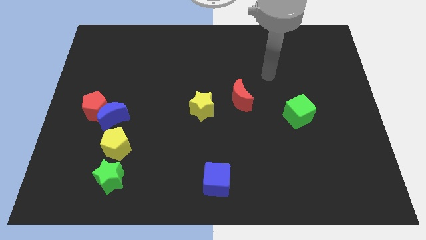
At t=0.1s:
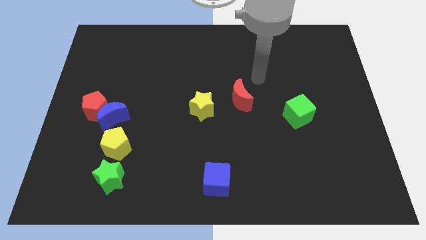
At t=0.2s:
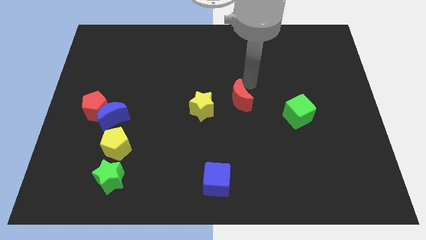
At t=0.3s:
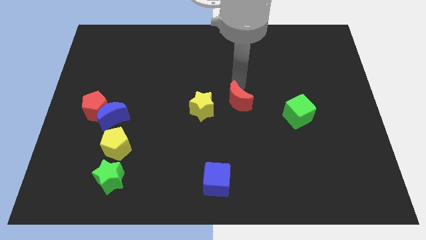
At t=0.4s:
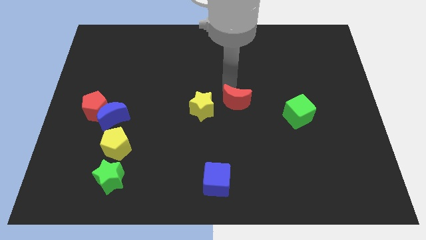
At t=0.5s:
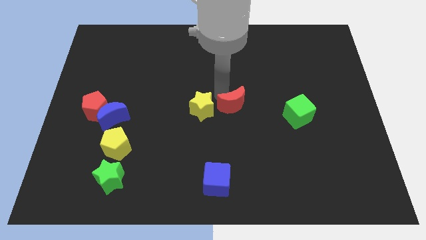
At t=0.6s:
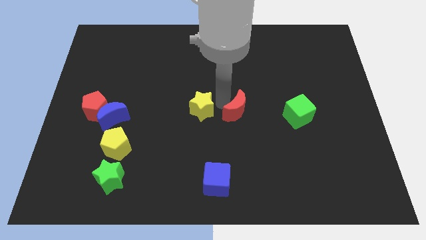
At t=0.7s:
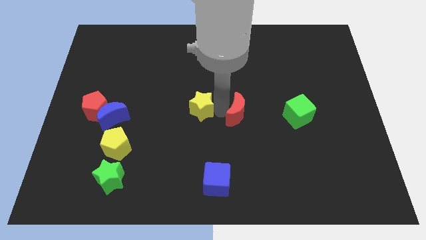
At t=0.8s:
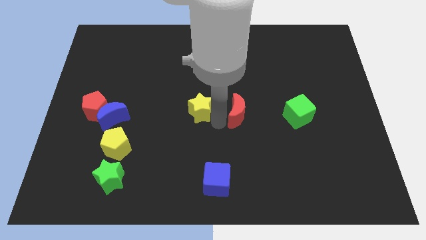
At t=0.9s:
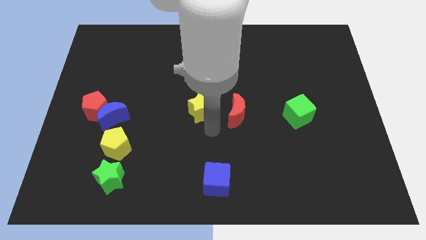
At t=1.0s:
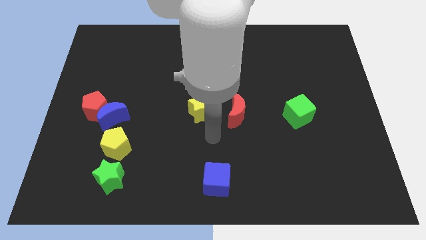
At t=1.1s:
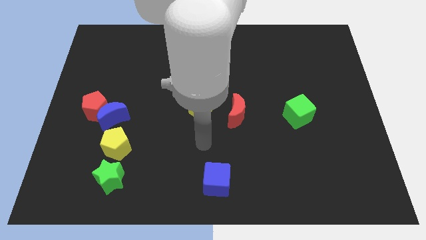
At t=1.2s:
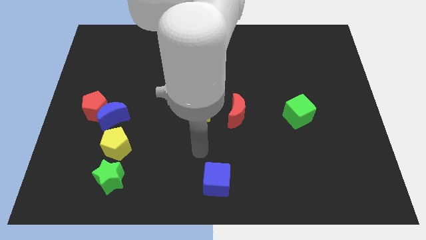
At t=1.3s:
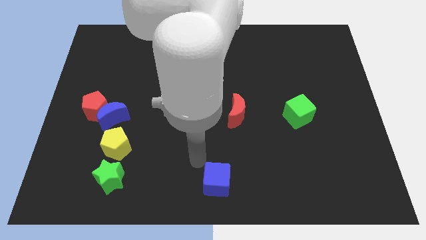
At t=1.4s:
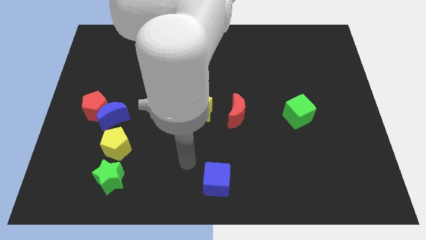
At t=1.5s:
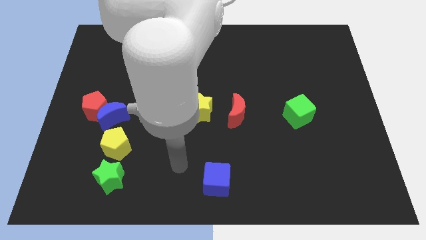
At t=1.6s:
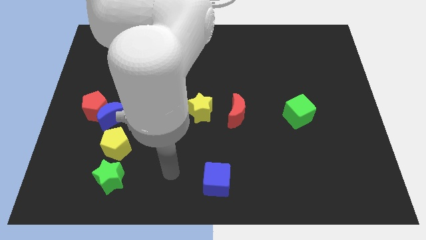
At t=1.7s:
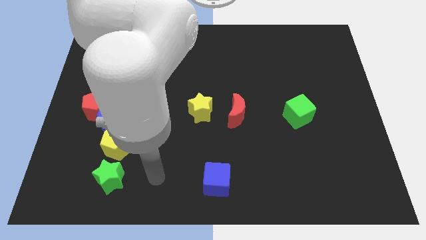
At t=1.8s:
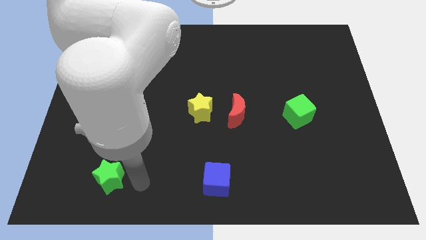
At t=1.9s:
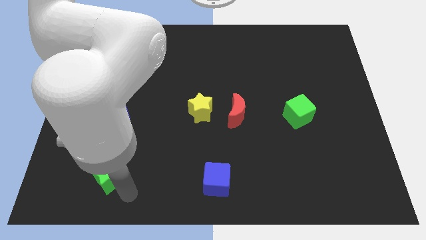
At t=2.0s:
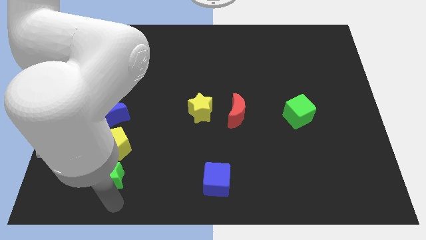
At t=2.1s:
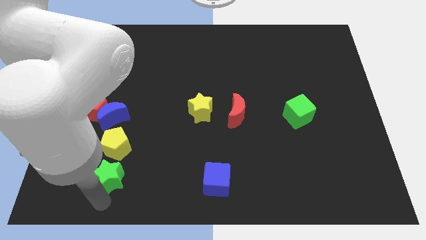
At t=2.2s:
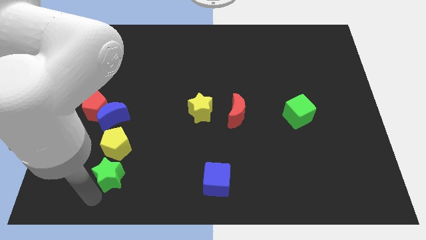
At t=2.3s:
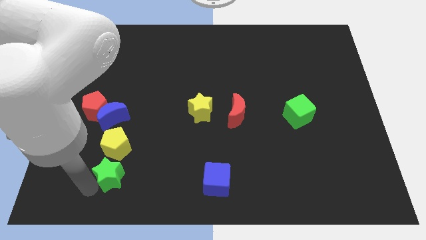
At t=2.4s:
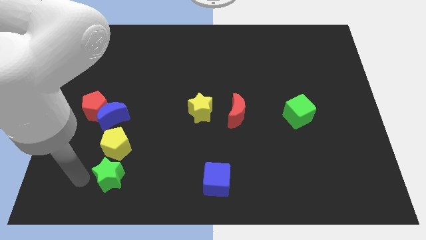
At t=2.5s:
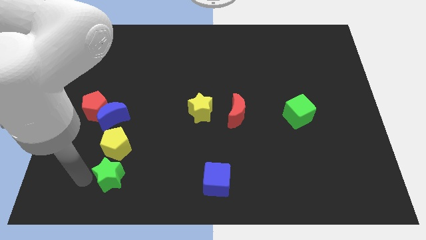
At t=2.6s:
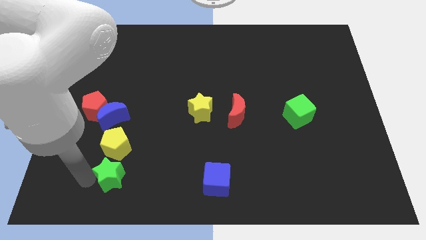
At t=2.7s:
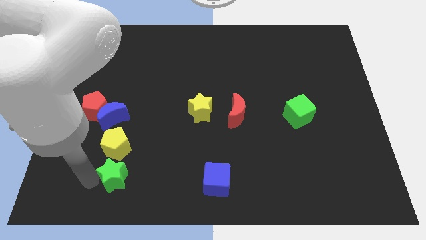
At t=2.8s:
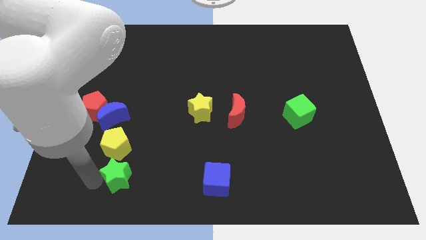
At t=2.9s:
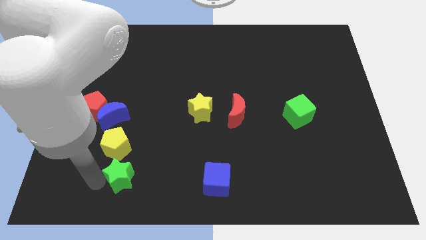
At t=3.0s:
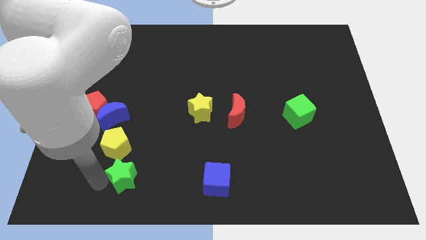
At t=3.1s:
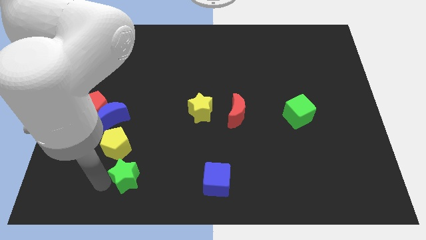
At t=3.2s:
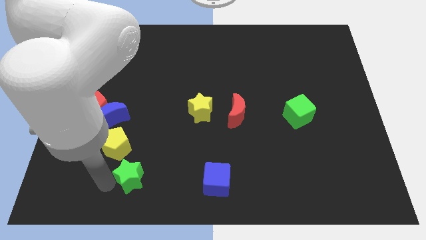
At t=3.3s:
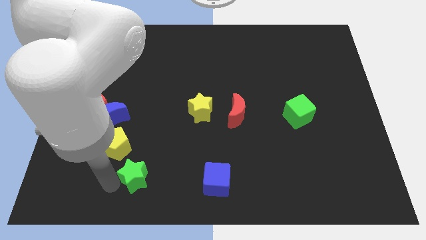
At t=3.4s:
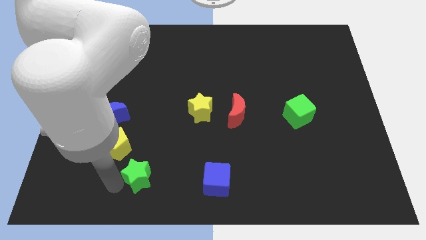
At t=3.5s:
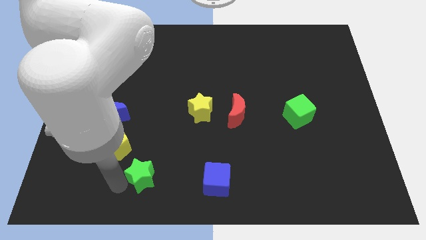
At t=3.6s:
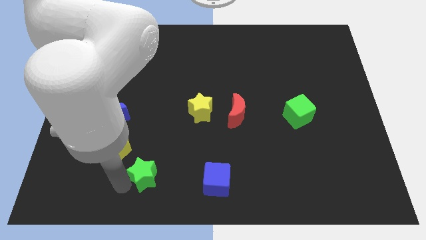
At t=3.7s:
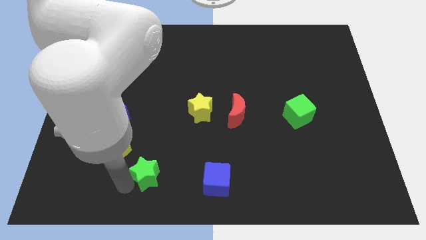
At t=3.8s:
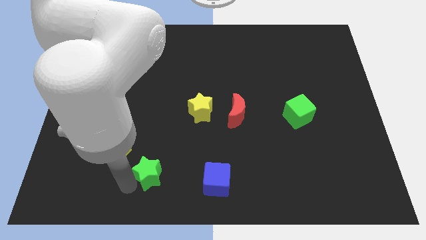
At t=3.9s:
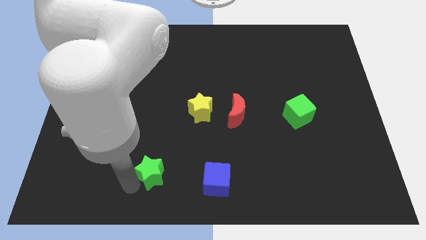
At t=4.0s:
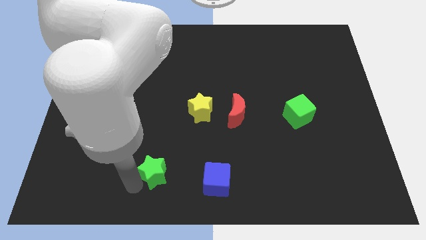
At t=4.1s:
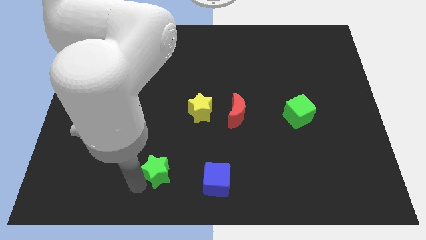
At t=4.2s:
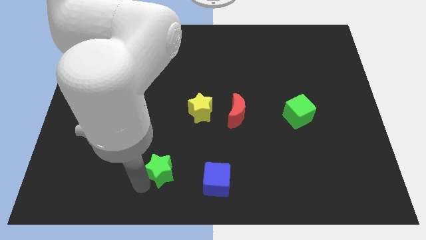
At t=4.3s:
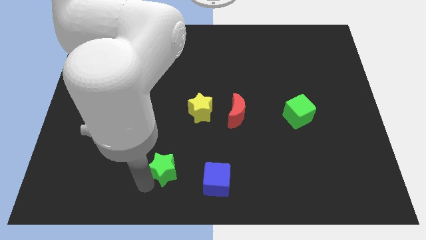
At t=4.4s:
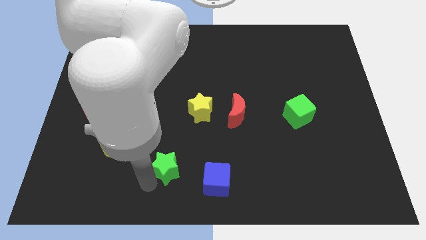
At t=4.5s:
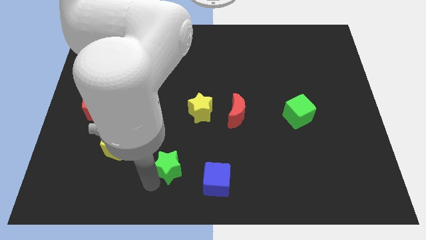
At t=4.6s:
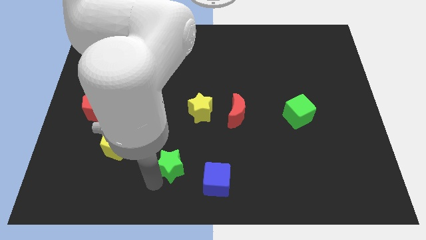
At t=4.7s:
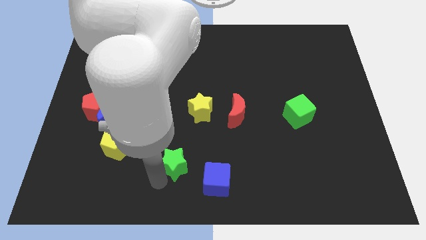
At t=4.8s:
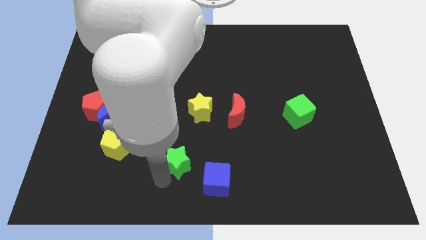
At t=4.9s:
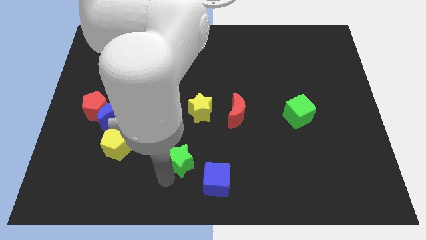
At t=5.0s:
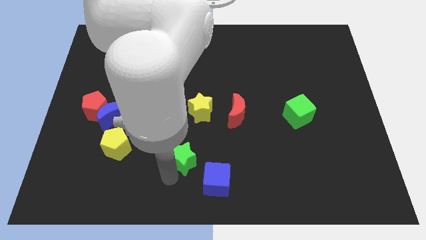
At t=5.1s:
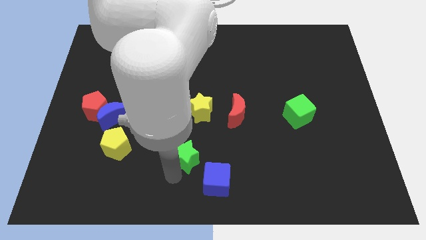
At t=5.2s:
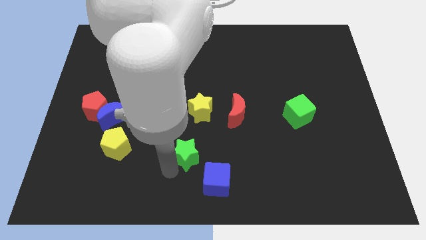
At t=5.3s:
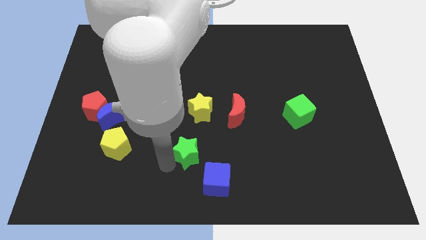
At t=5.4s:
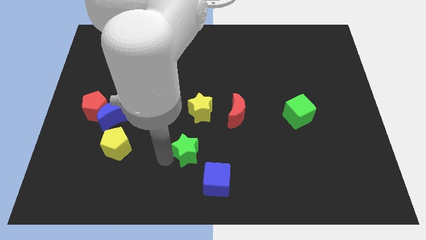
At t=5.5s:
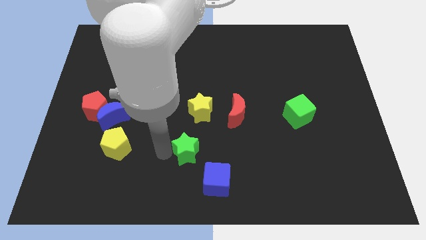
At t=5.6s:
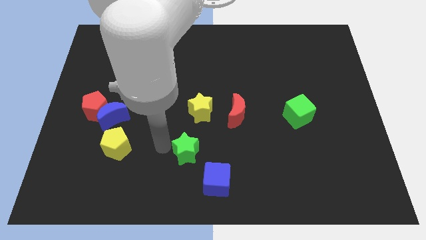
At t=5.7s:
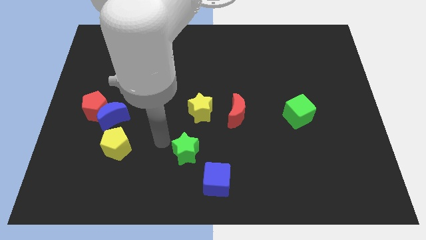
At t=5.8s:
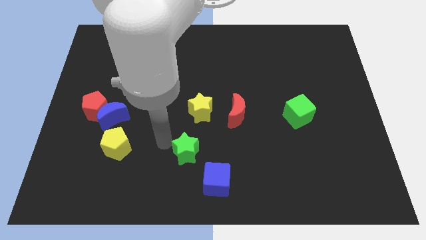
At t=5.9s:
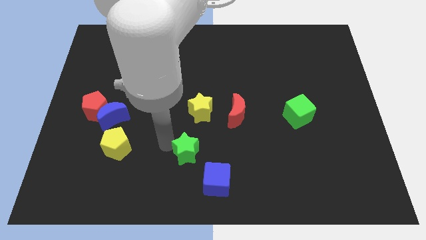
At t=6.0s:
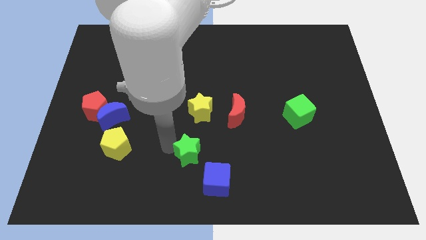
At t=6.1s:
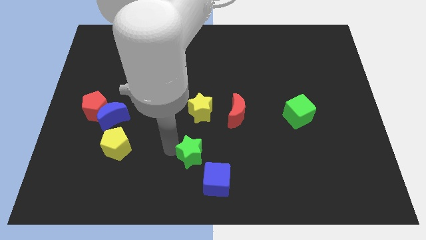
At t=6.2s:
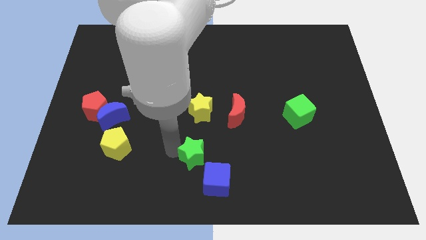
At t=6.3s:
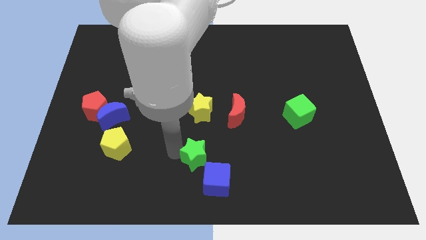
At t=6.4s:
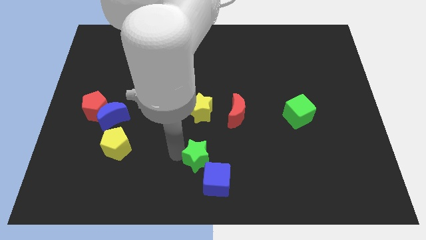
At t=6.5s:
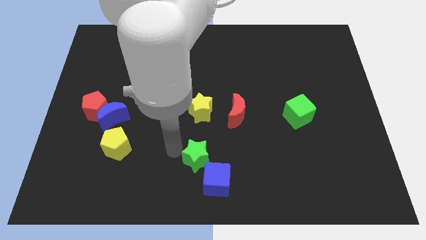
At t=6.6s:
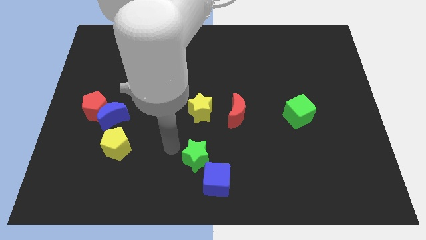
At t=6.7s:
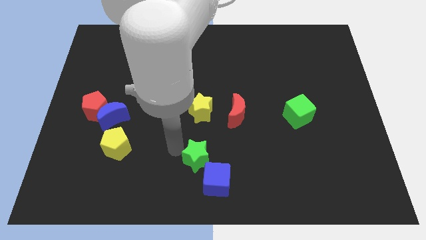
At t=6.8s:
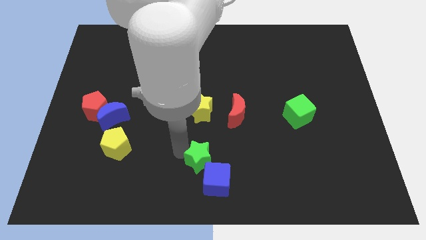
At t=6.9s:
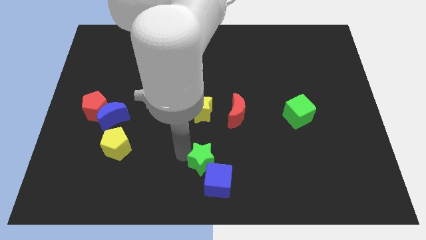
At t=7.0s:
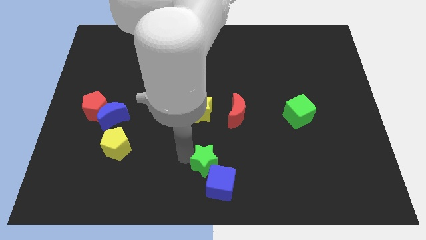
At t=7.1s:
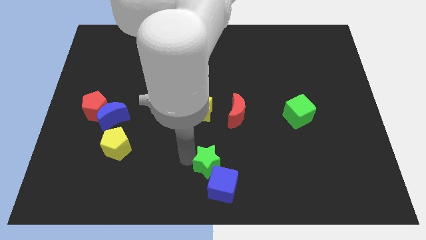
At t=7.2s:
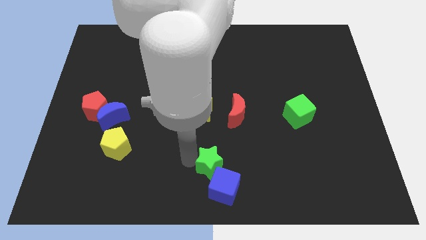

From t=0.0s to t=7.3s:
move the green star right

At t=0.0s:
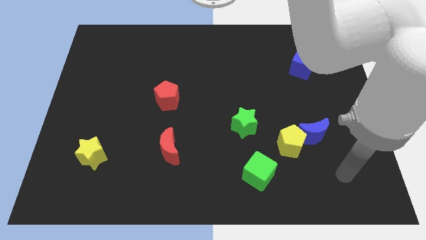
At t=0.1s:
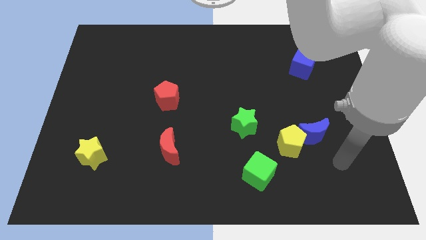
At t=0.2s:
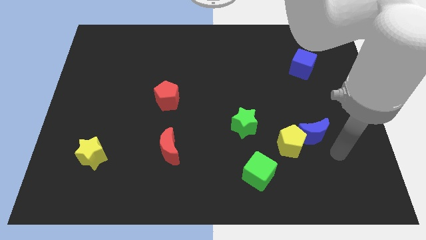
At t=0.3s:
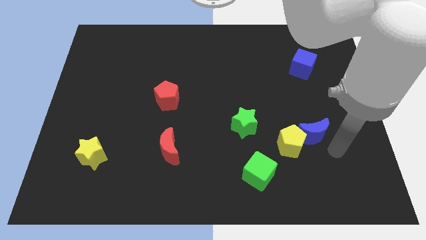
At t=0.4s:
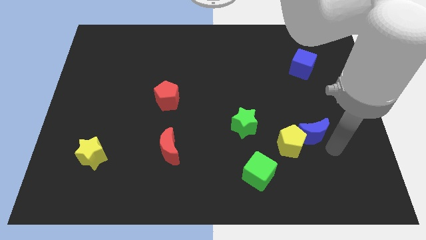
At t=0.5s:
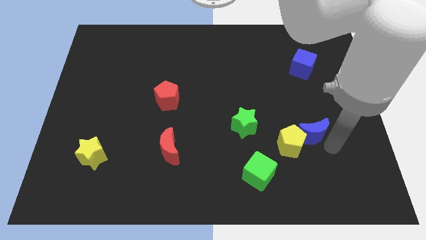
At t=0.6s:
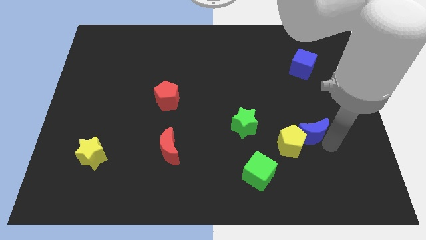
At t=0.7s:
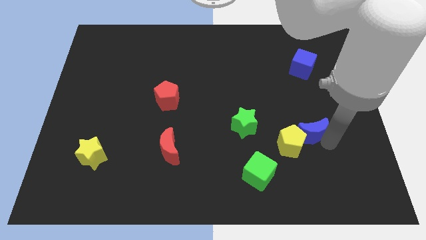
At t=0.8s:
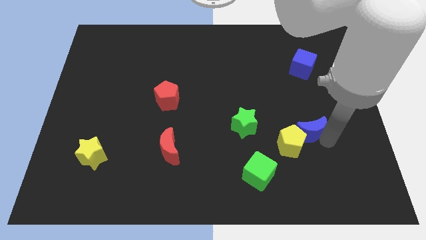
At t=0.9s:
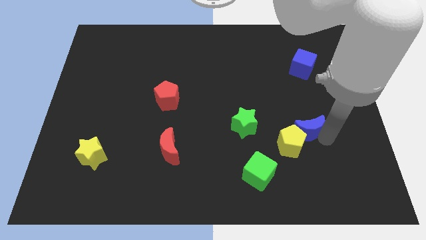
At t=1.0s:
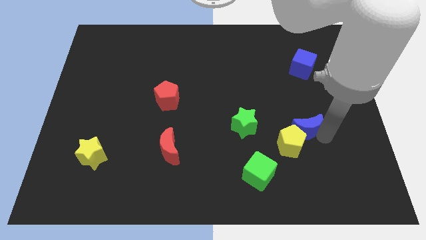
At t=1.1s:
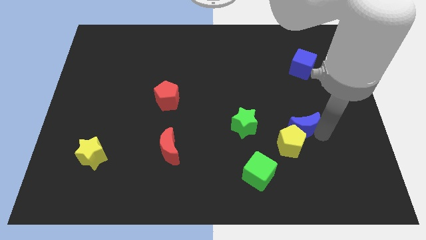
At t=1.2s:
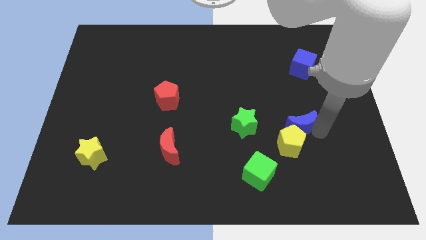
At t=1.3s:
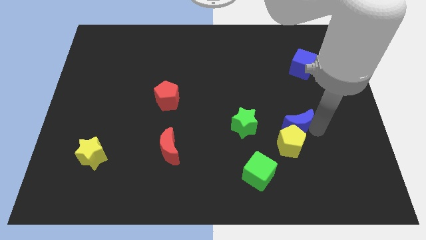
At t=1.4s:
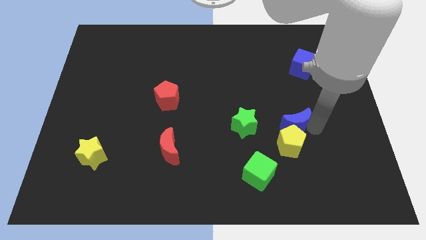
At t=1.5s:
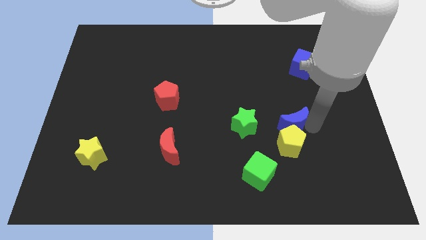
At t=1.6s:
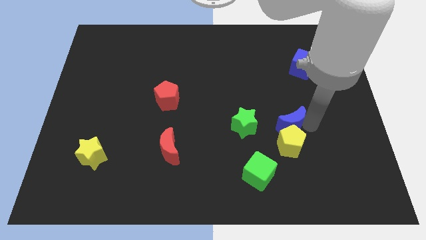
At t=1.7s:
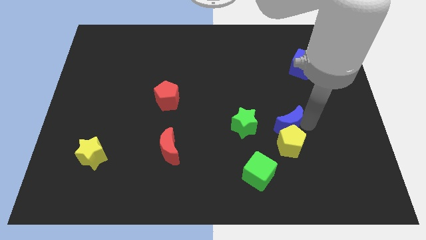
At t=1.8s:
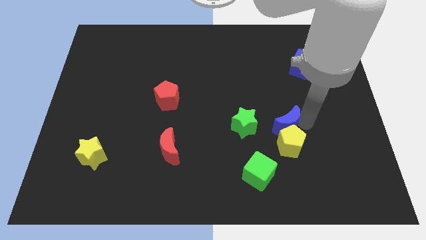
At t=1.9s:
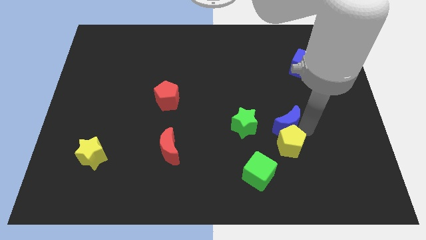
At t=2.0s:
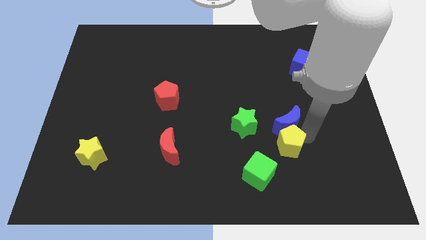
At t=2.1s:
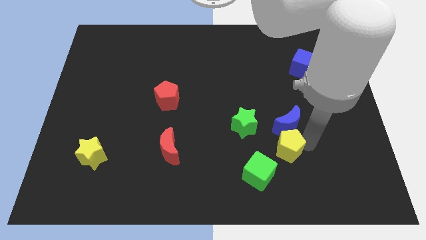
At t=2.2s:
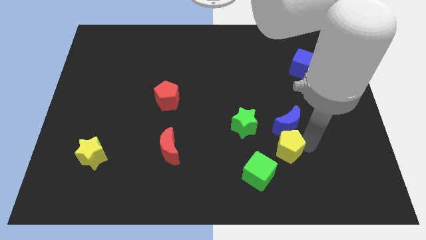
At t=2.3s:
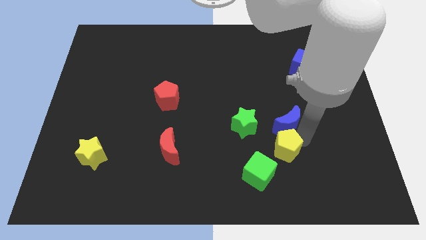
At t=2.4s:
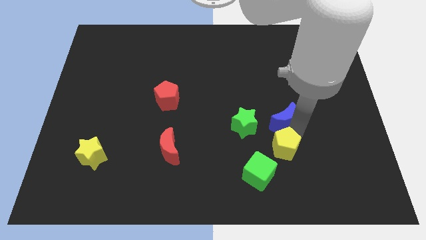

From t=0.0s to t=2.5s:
slightly push the blue moon up and then to the left
